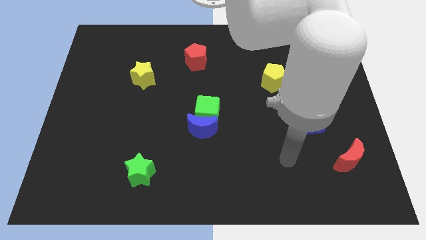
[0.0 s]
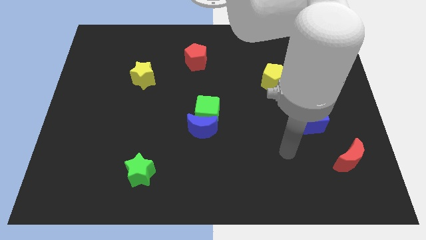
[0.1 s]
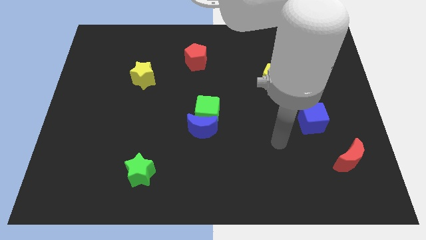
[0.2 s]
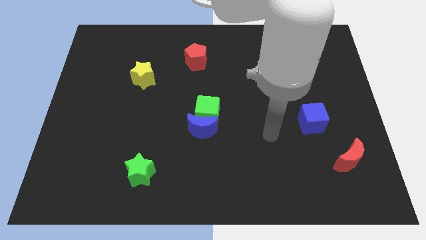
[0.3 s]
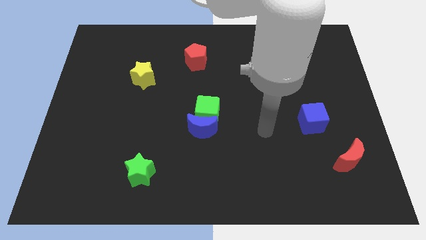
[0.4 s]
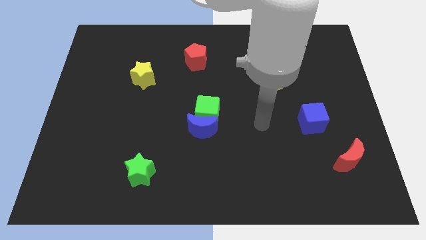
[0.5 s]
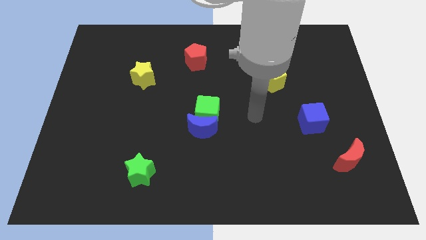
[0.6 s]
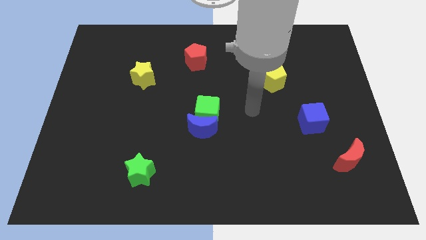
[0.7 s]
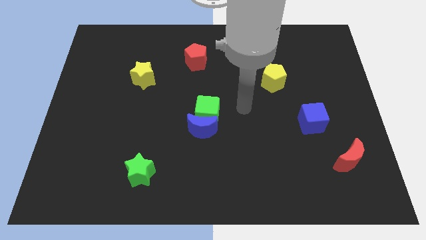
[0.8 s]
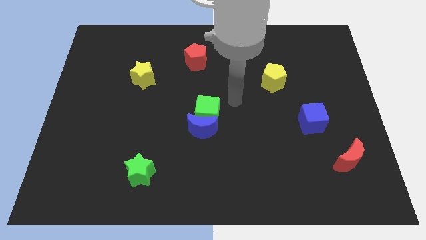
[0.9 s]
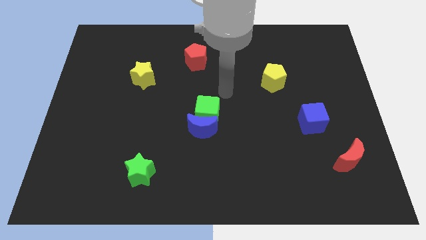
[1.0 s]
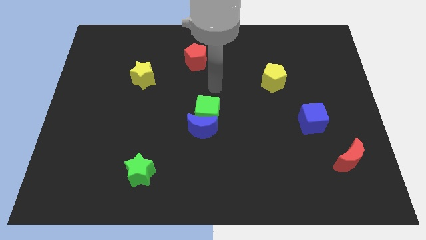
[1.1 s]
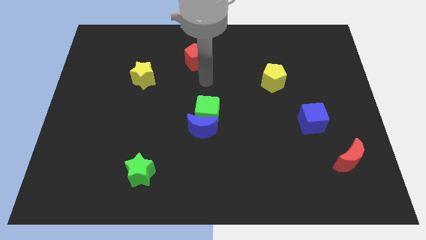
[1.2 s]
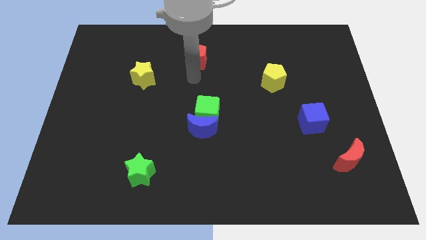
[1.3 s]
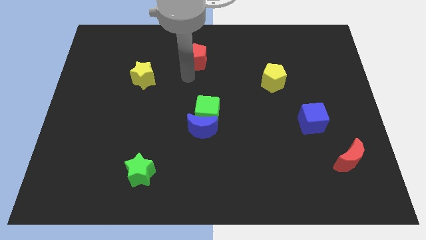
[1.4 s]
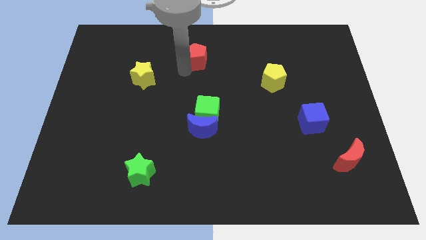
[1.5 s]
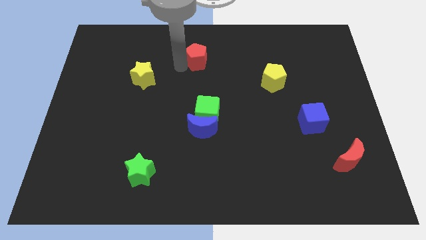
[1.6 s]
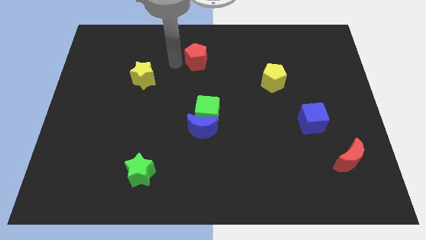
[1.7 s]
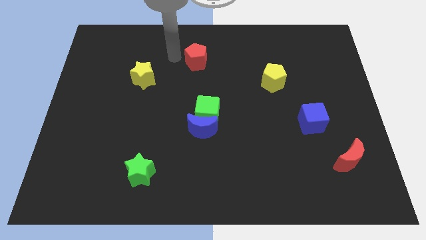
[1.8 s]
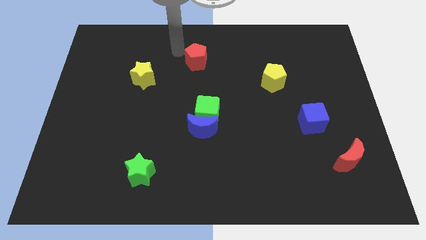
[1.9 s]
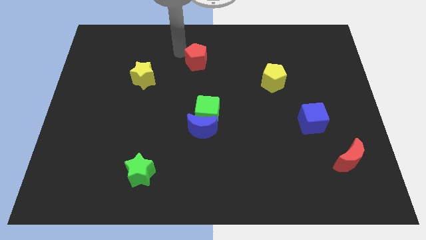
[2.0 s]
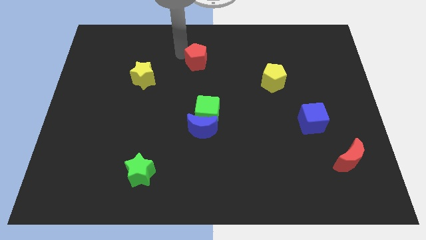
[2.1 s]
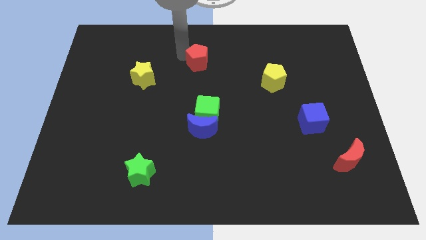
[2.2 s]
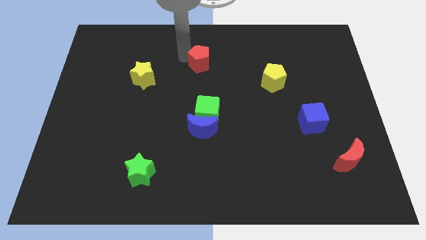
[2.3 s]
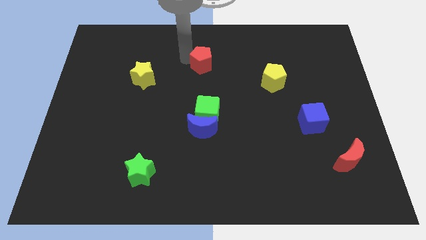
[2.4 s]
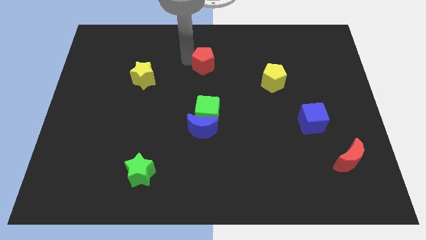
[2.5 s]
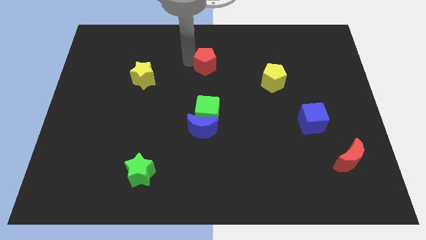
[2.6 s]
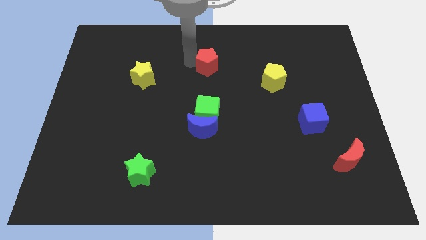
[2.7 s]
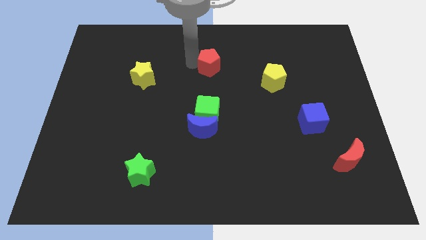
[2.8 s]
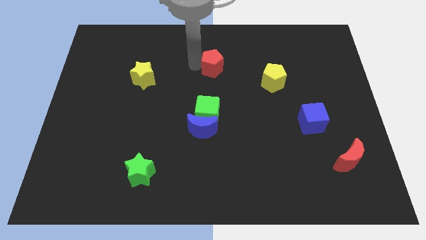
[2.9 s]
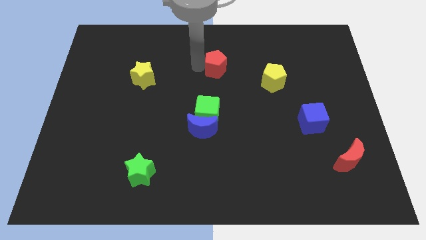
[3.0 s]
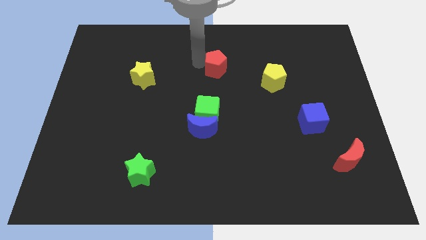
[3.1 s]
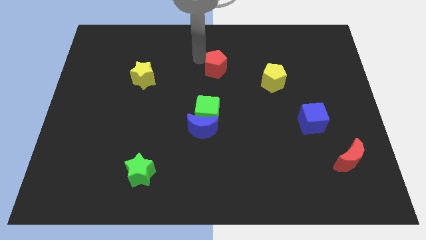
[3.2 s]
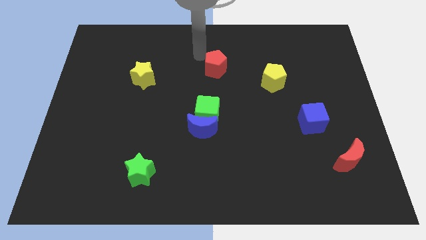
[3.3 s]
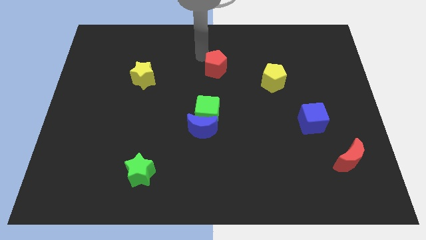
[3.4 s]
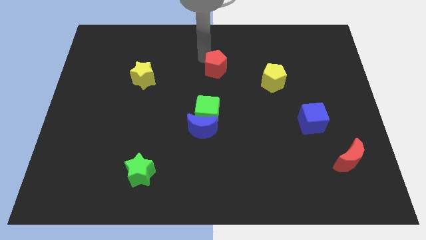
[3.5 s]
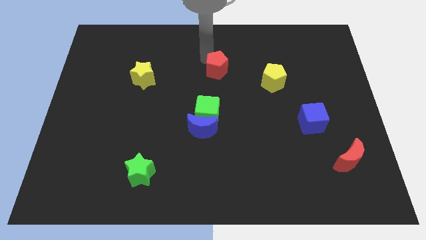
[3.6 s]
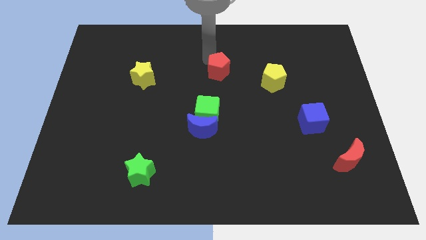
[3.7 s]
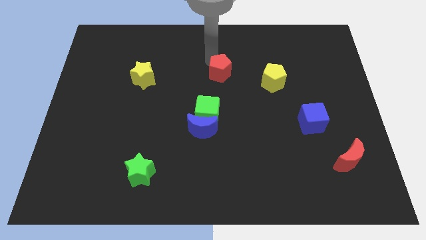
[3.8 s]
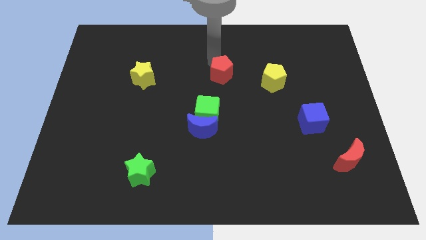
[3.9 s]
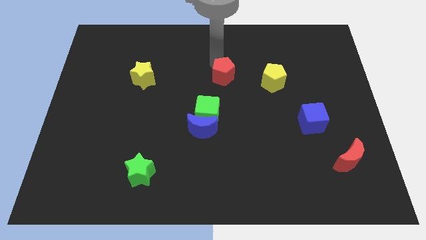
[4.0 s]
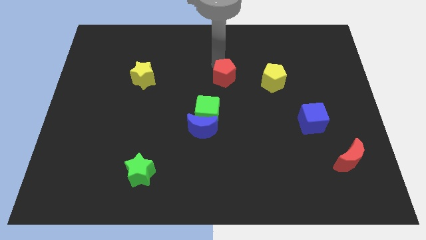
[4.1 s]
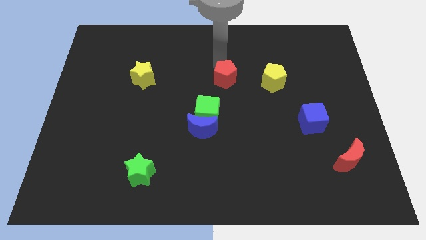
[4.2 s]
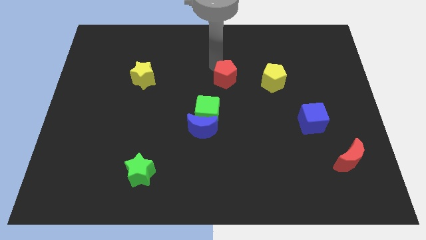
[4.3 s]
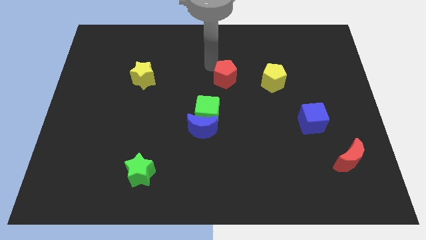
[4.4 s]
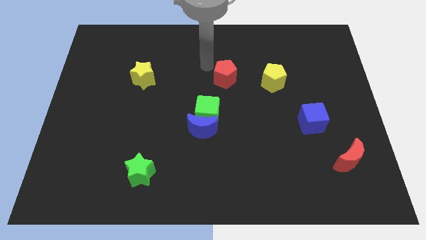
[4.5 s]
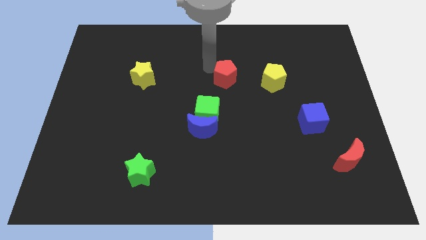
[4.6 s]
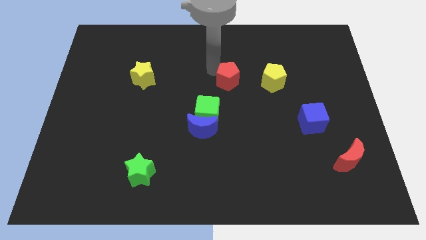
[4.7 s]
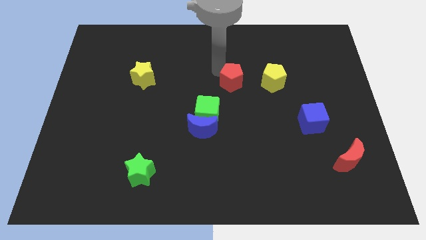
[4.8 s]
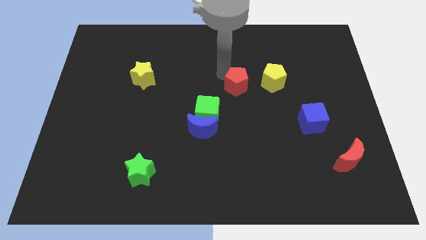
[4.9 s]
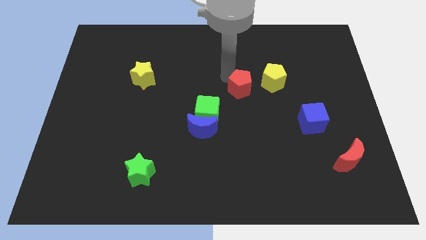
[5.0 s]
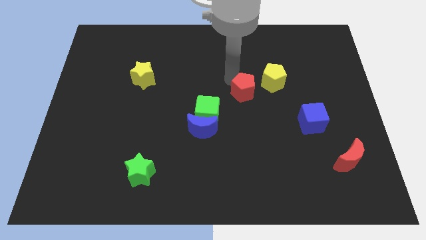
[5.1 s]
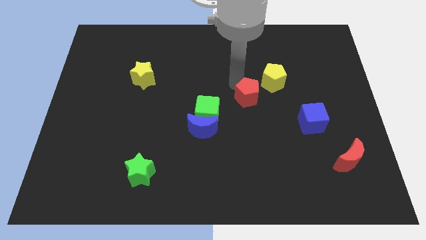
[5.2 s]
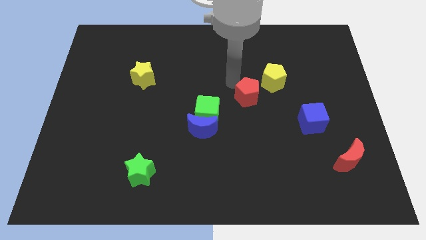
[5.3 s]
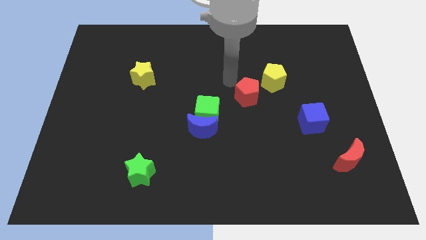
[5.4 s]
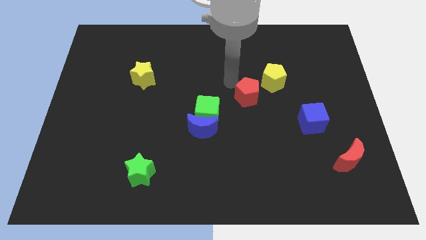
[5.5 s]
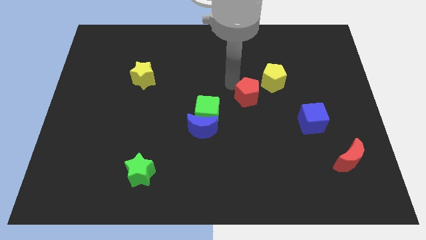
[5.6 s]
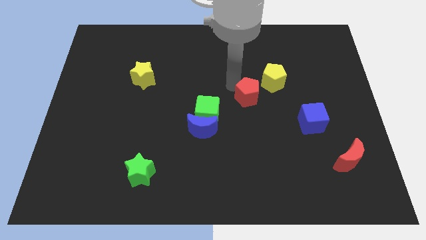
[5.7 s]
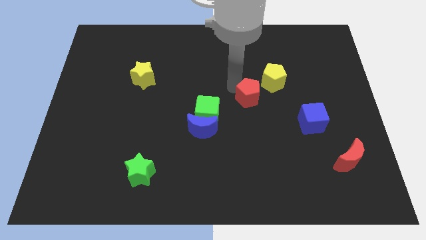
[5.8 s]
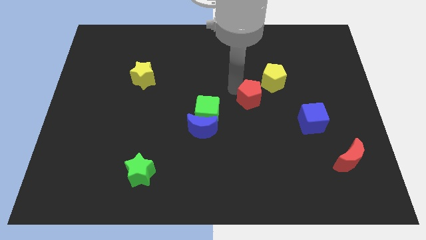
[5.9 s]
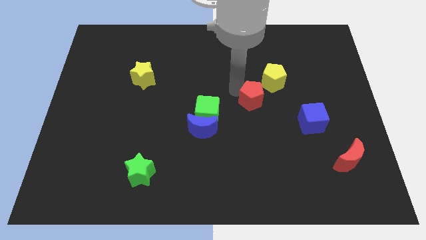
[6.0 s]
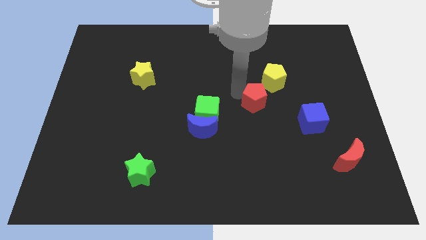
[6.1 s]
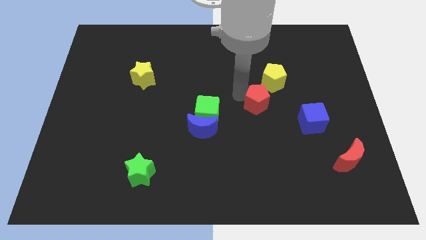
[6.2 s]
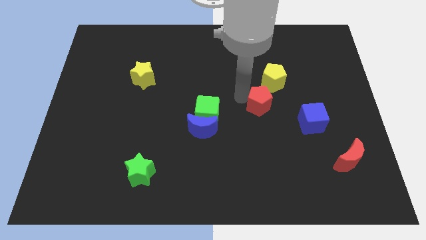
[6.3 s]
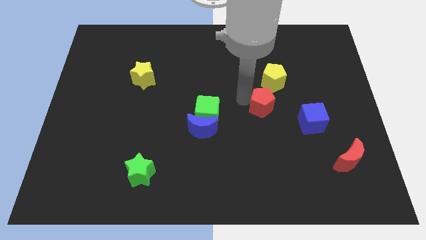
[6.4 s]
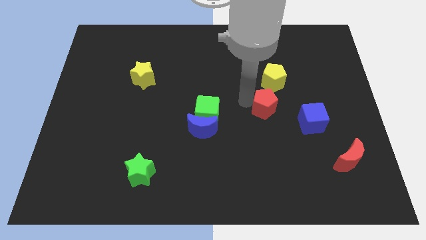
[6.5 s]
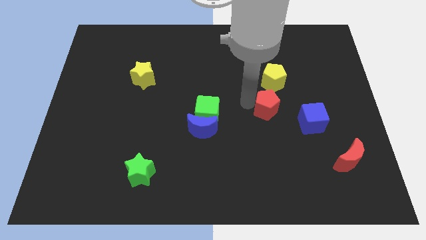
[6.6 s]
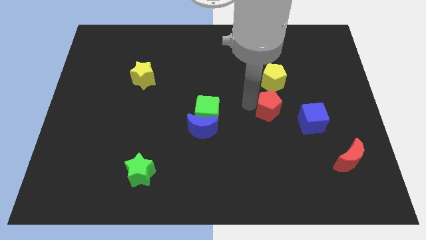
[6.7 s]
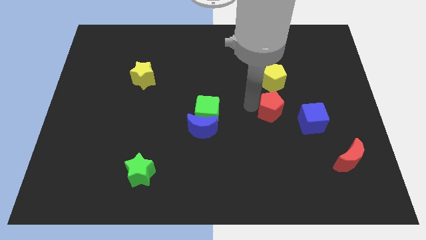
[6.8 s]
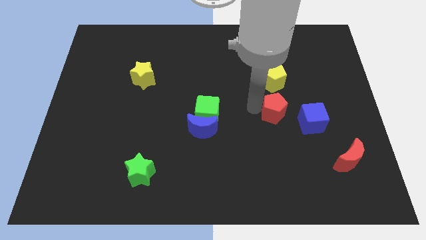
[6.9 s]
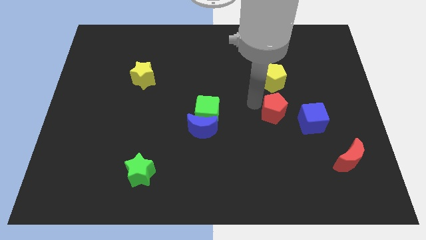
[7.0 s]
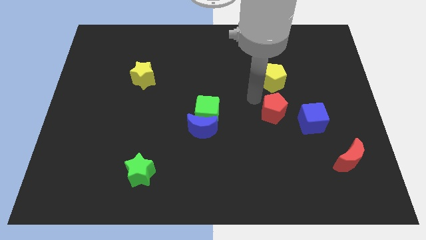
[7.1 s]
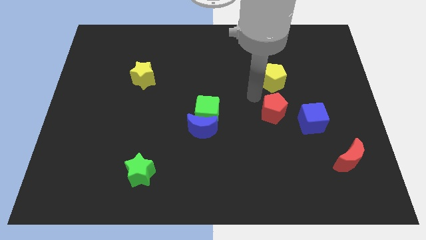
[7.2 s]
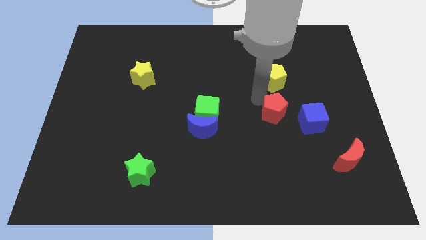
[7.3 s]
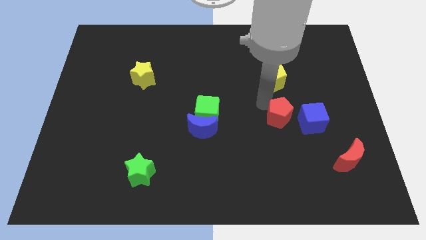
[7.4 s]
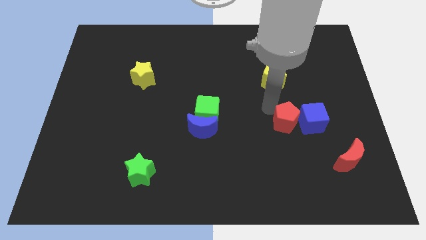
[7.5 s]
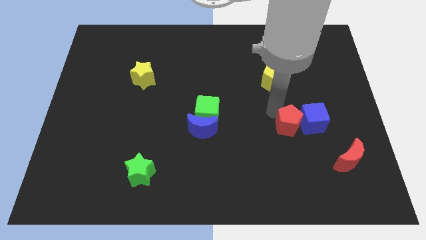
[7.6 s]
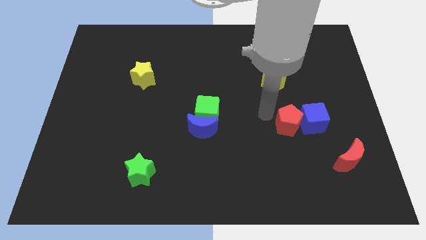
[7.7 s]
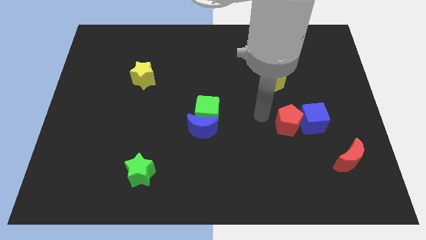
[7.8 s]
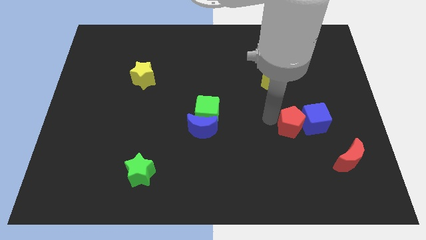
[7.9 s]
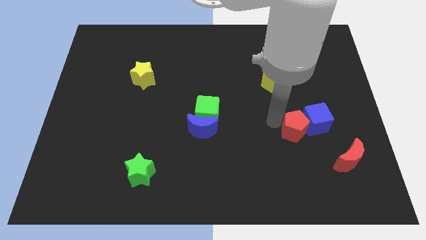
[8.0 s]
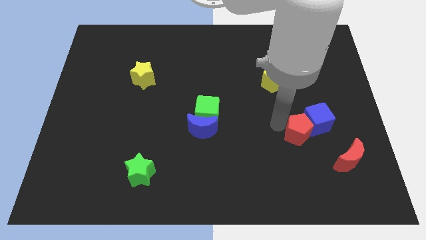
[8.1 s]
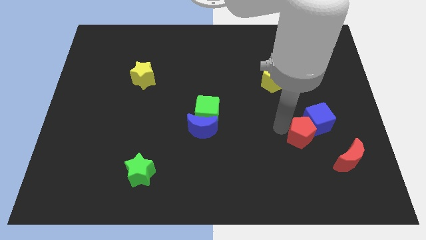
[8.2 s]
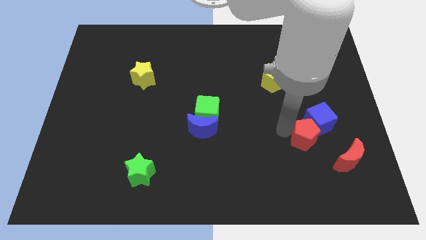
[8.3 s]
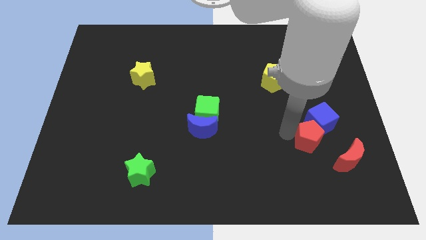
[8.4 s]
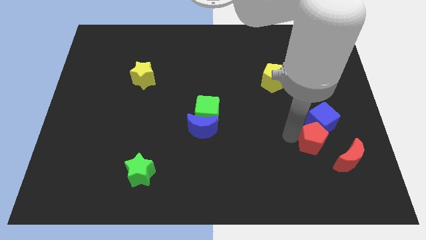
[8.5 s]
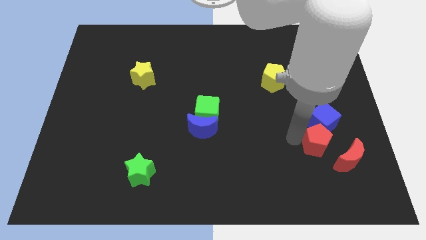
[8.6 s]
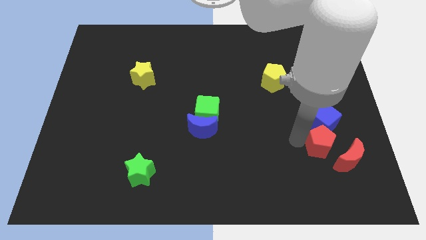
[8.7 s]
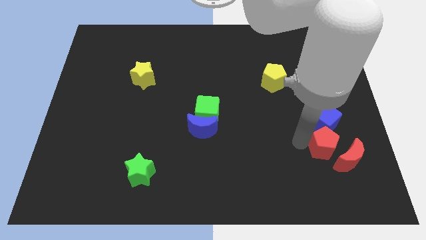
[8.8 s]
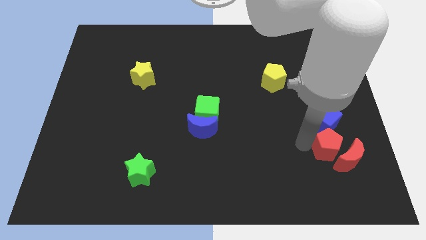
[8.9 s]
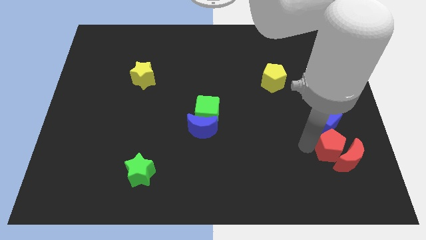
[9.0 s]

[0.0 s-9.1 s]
put the red pentagon diagonally down and to the right of the blue cube
